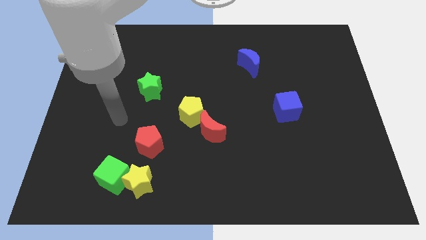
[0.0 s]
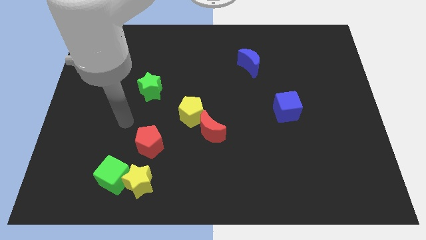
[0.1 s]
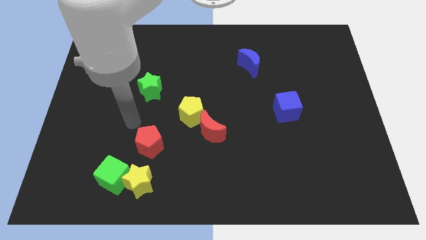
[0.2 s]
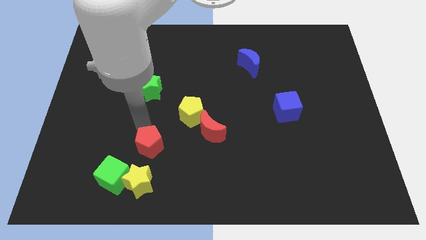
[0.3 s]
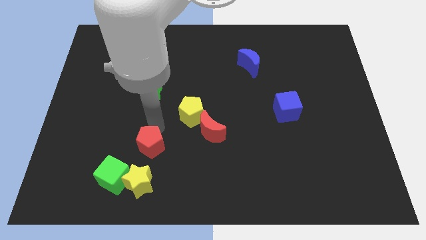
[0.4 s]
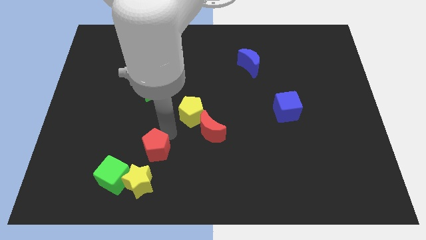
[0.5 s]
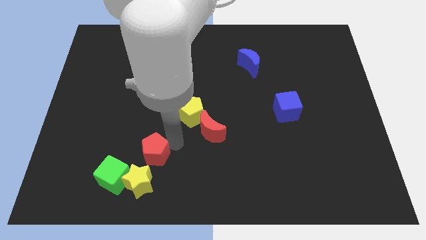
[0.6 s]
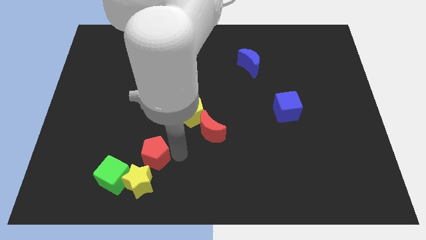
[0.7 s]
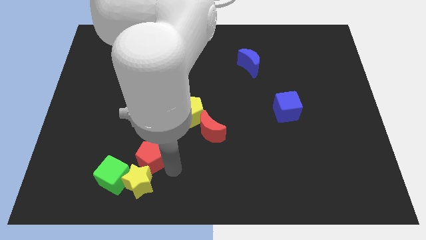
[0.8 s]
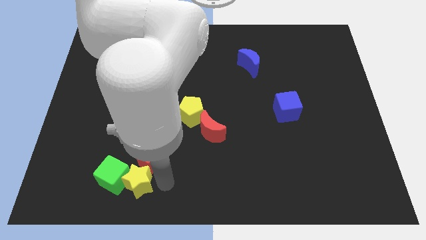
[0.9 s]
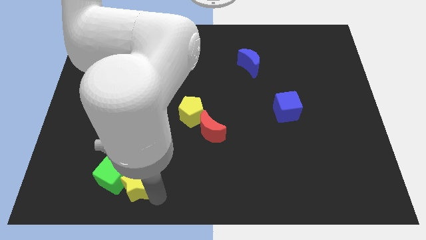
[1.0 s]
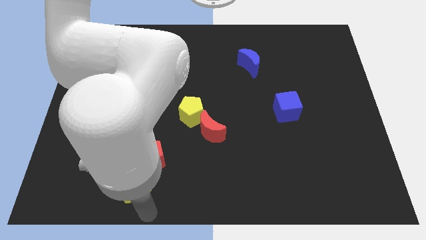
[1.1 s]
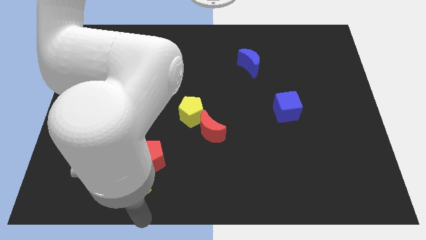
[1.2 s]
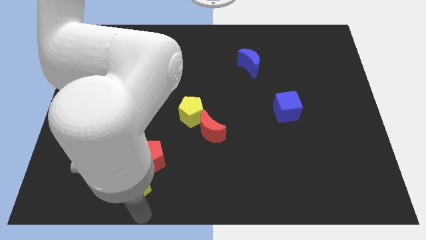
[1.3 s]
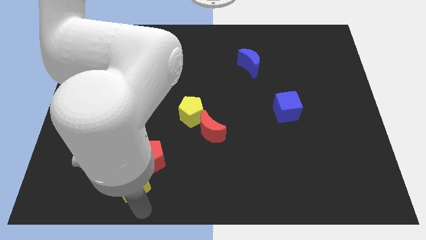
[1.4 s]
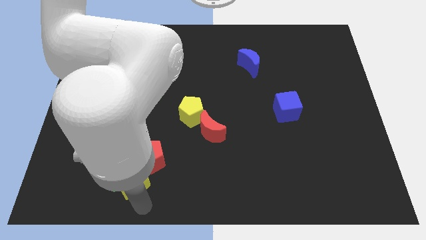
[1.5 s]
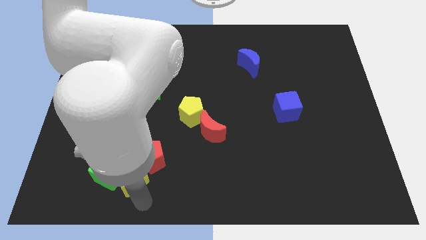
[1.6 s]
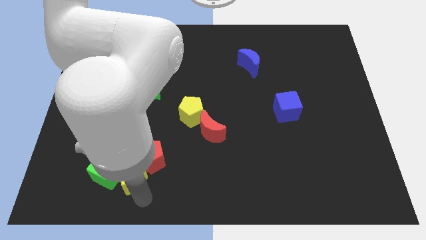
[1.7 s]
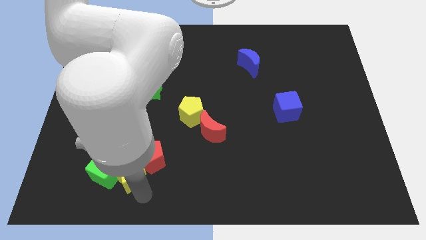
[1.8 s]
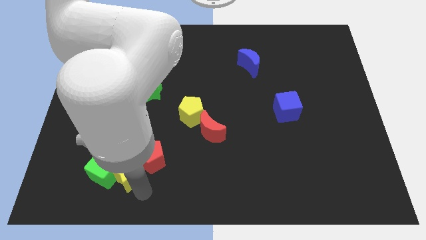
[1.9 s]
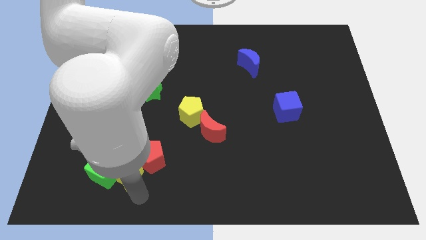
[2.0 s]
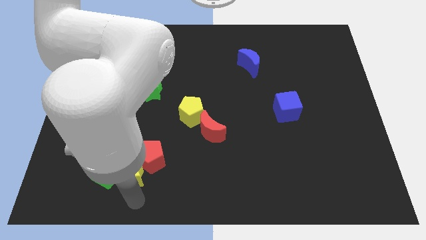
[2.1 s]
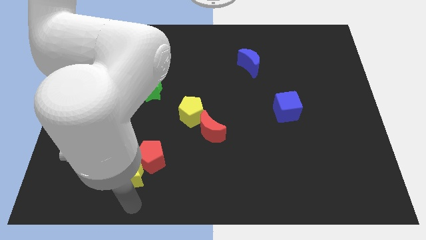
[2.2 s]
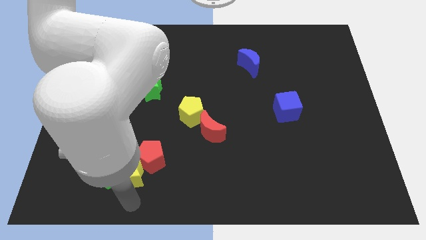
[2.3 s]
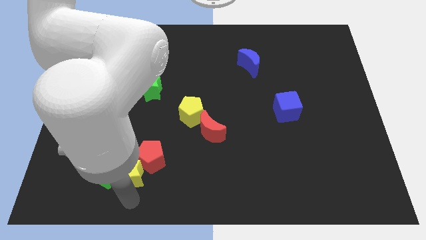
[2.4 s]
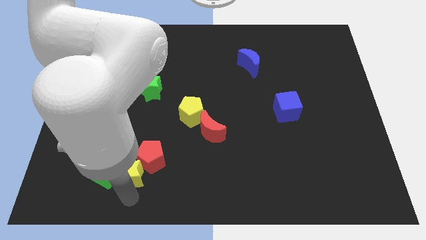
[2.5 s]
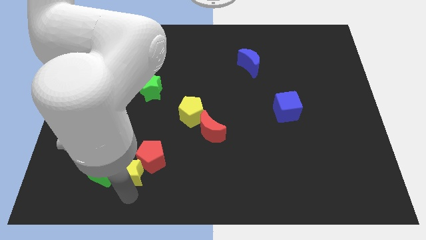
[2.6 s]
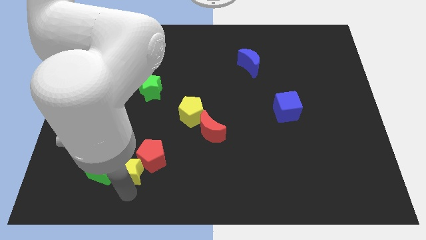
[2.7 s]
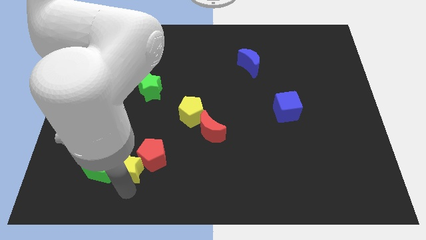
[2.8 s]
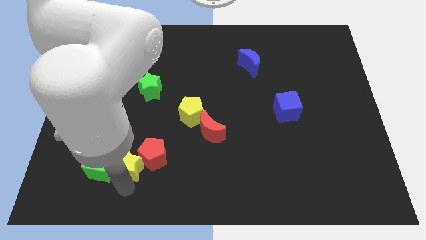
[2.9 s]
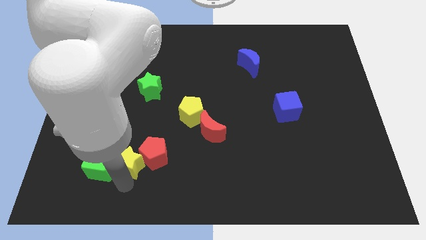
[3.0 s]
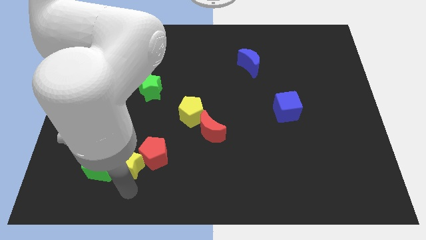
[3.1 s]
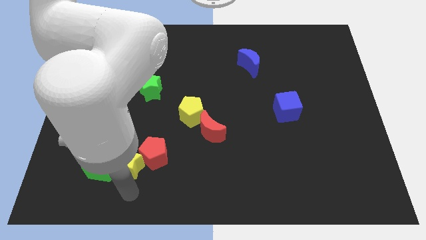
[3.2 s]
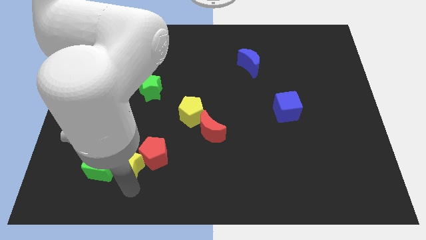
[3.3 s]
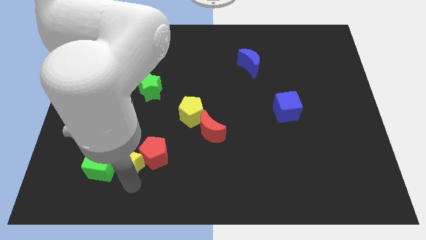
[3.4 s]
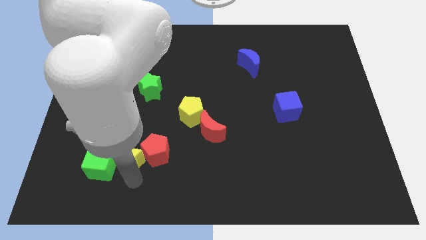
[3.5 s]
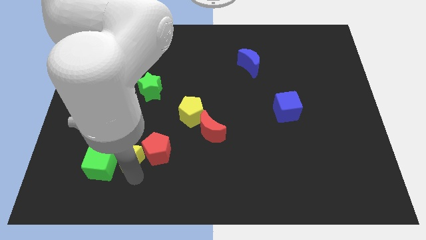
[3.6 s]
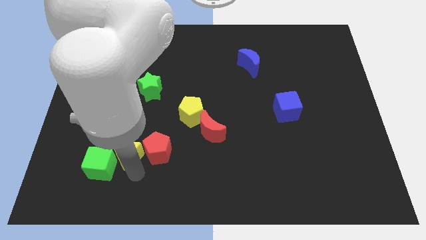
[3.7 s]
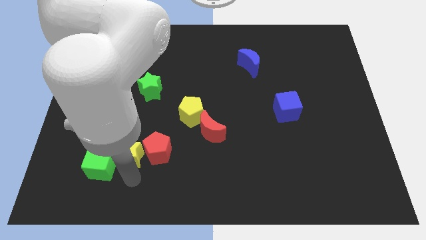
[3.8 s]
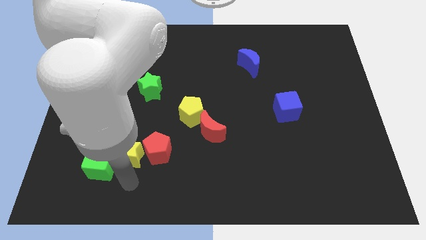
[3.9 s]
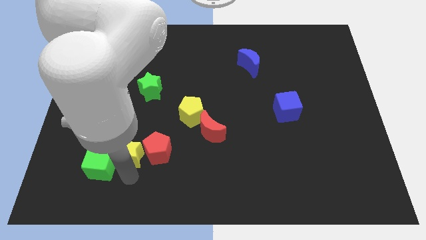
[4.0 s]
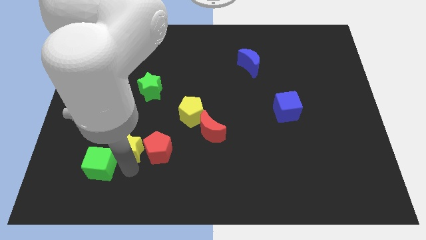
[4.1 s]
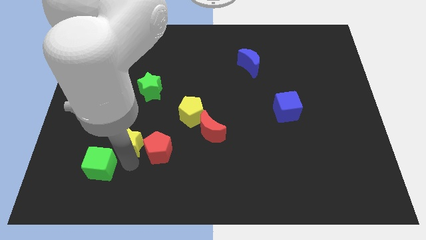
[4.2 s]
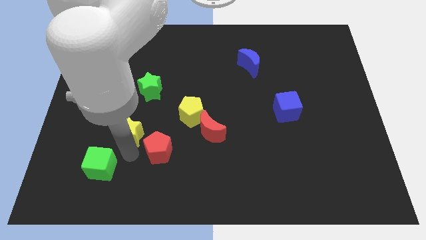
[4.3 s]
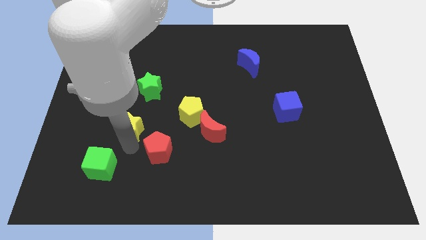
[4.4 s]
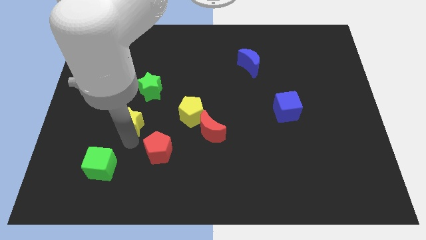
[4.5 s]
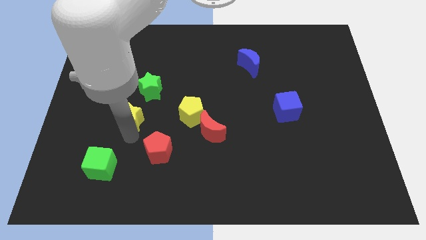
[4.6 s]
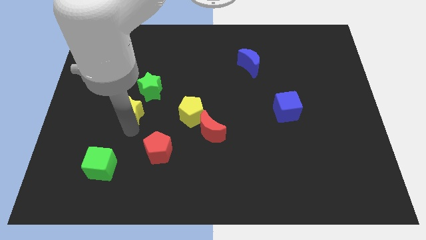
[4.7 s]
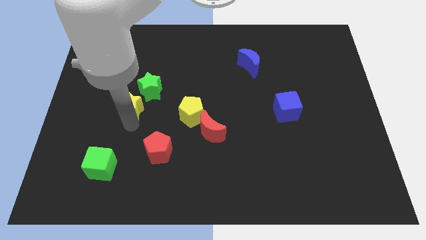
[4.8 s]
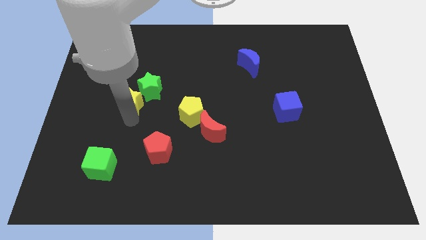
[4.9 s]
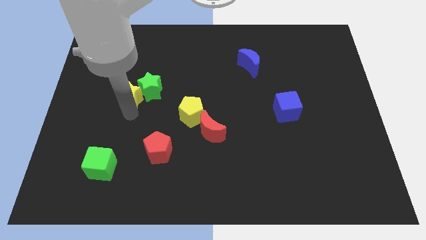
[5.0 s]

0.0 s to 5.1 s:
push the yellow star up

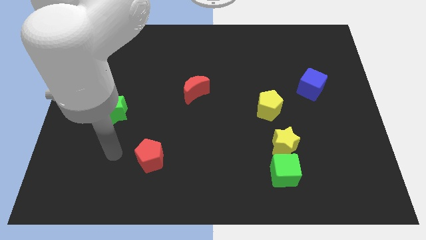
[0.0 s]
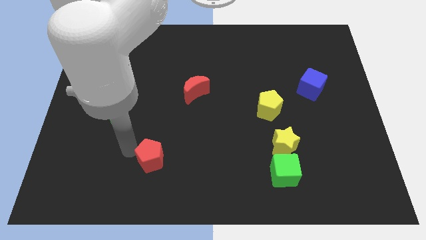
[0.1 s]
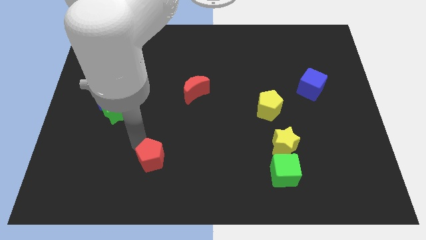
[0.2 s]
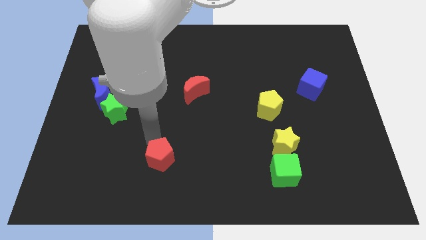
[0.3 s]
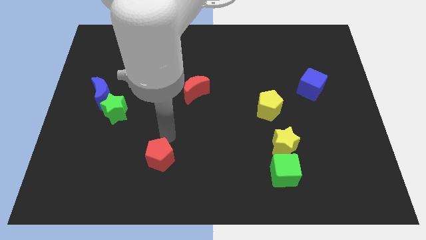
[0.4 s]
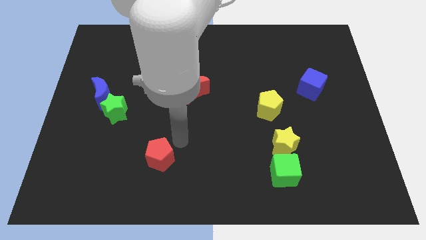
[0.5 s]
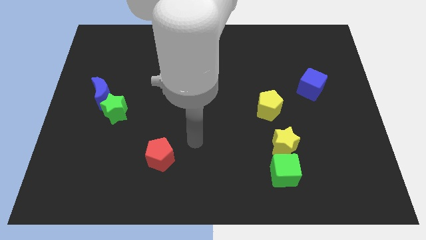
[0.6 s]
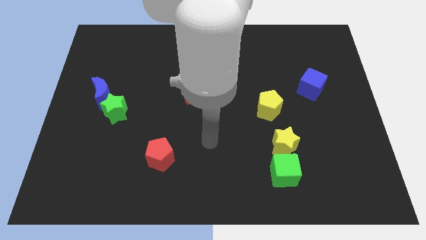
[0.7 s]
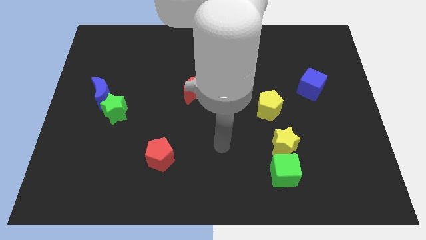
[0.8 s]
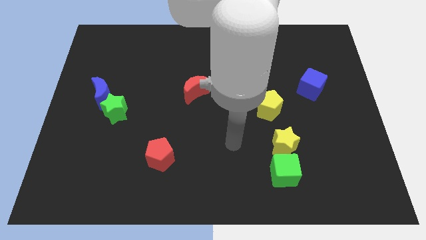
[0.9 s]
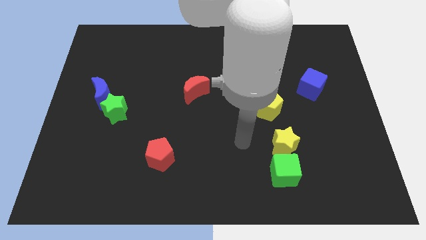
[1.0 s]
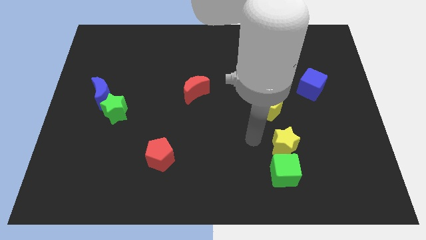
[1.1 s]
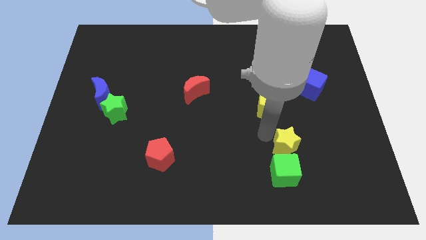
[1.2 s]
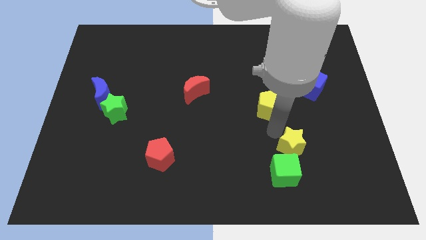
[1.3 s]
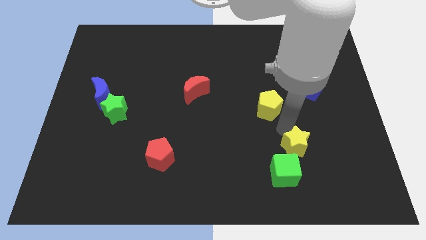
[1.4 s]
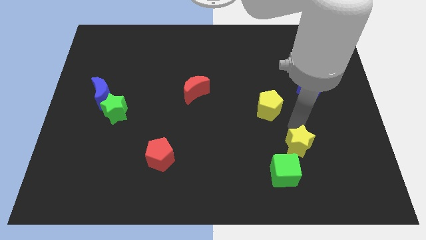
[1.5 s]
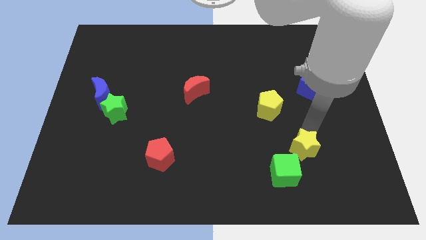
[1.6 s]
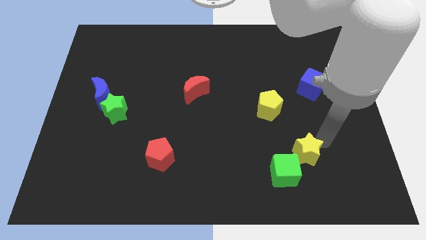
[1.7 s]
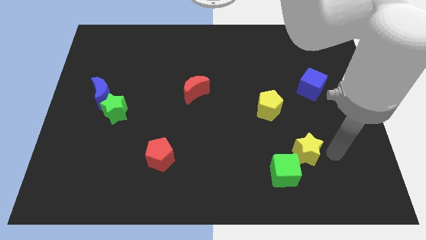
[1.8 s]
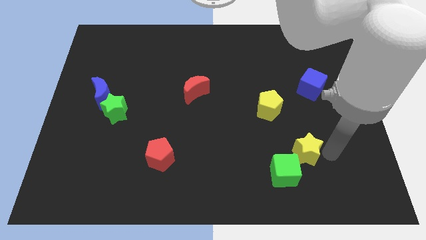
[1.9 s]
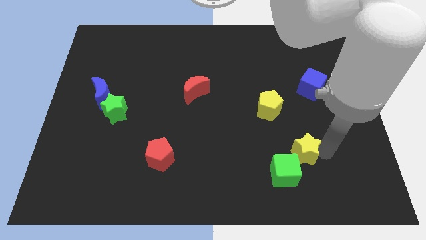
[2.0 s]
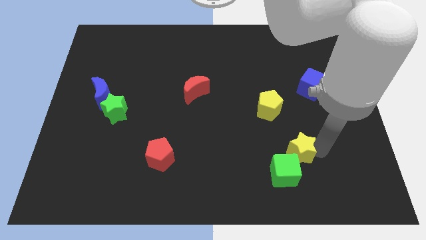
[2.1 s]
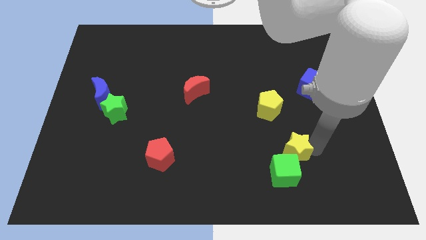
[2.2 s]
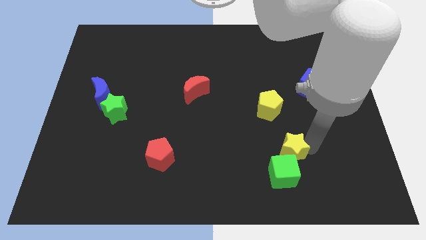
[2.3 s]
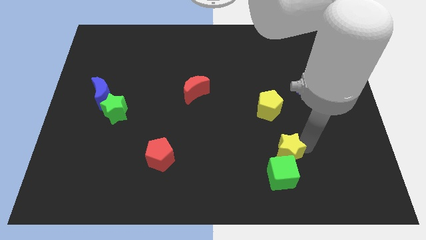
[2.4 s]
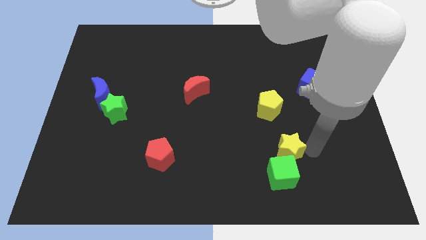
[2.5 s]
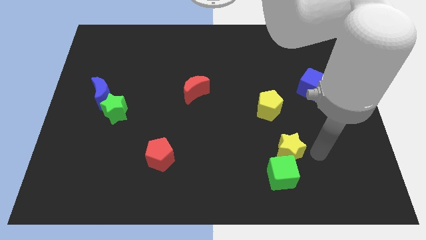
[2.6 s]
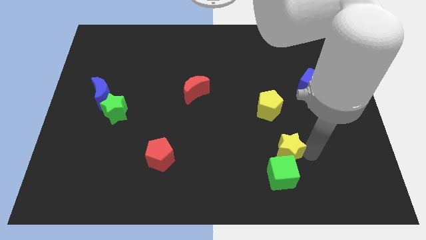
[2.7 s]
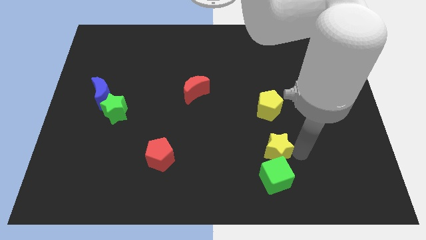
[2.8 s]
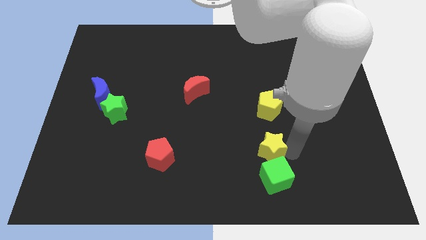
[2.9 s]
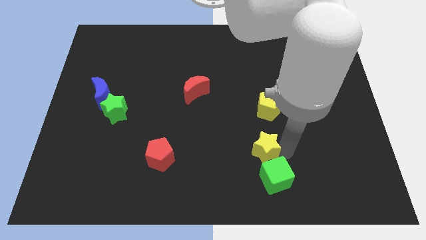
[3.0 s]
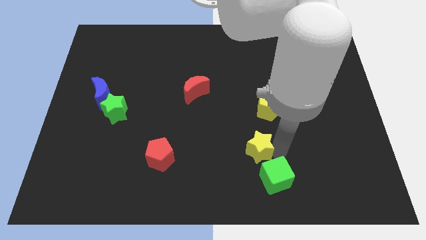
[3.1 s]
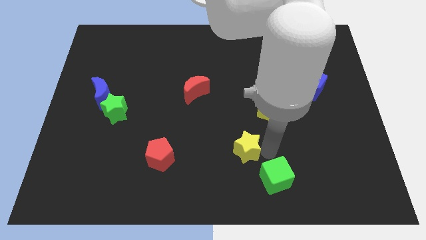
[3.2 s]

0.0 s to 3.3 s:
push the yellow star to the left slightly
